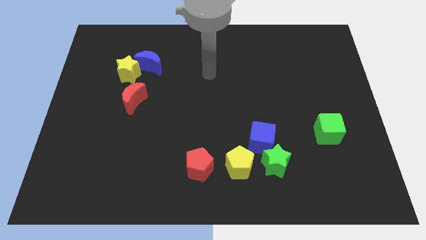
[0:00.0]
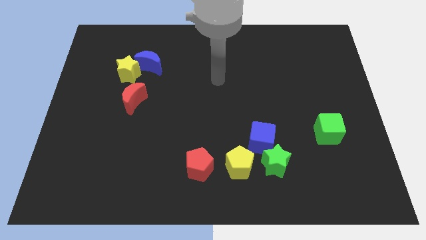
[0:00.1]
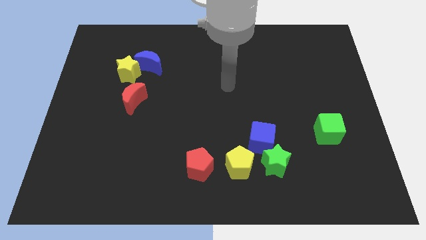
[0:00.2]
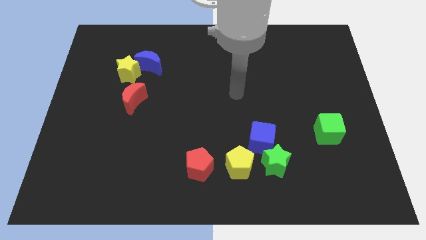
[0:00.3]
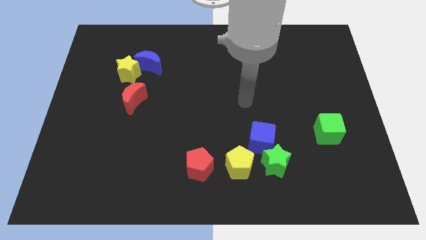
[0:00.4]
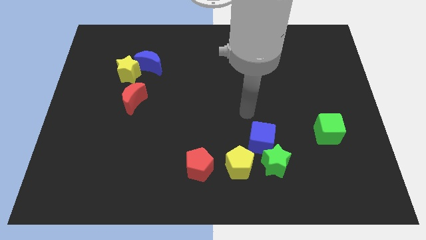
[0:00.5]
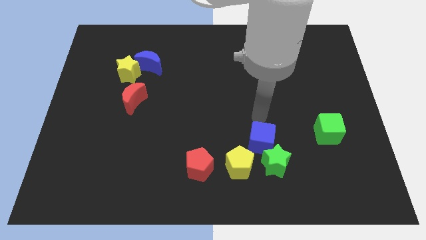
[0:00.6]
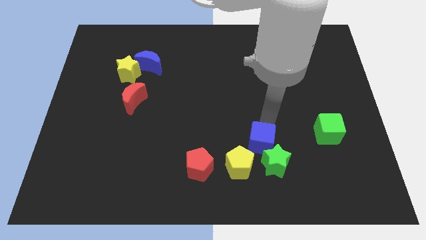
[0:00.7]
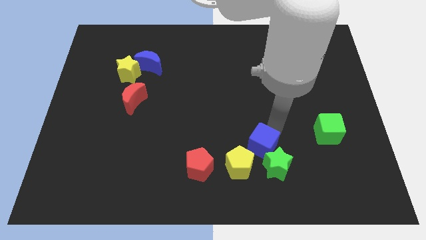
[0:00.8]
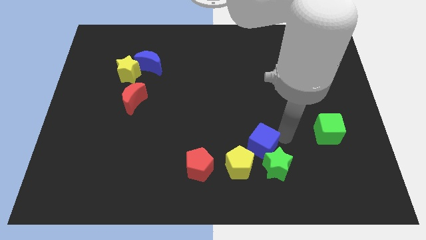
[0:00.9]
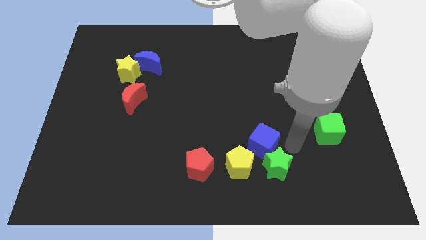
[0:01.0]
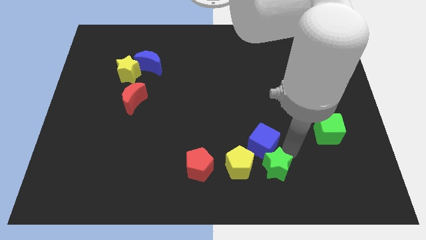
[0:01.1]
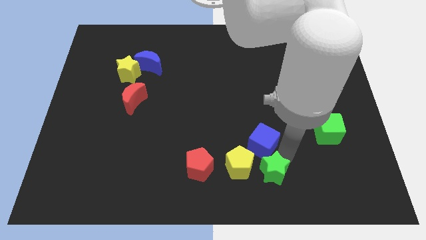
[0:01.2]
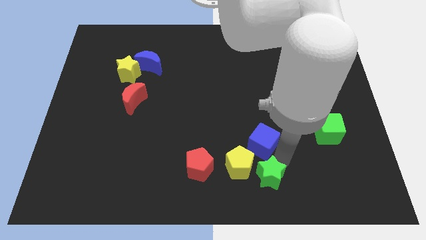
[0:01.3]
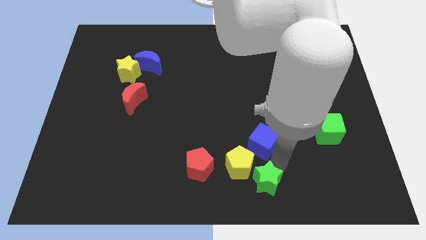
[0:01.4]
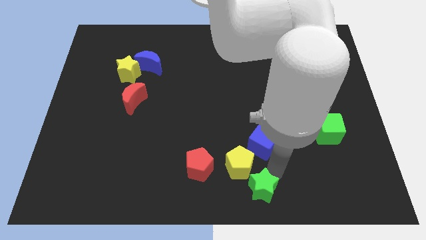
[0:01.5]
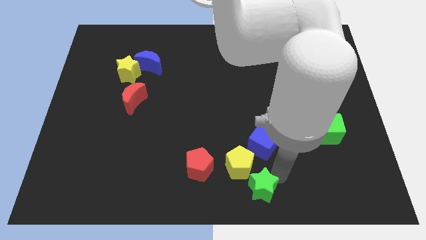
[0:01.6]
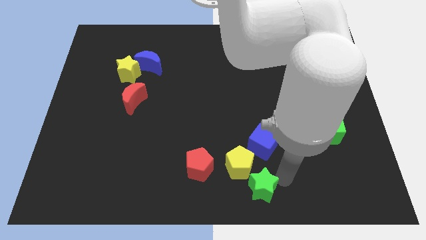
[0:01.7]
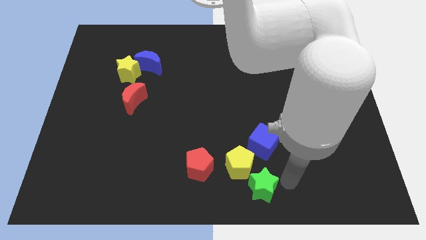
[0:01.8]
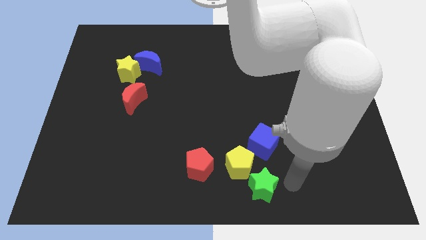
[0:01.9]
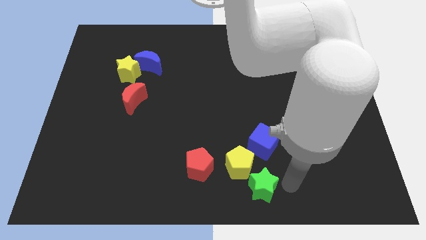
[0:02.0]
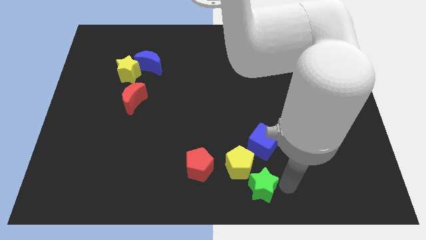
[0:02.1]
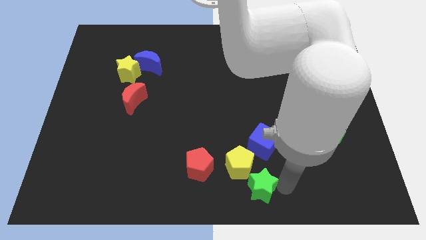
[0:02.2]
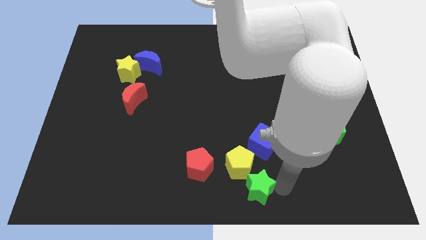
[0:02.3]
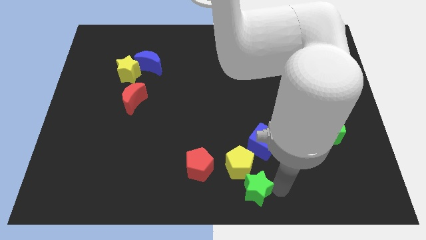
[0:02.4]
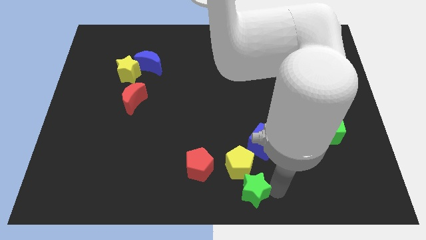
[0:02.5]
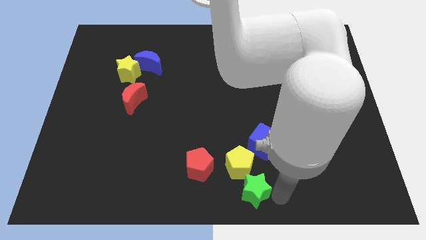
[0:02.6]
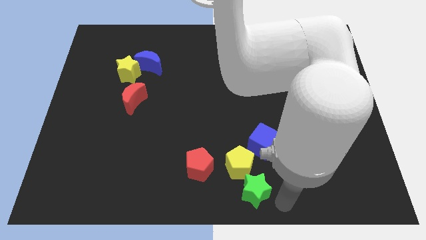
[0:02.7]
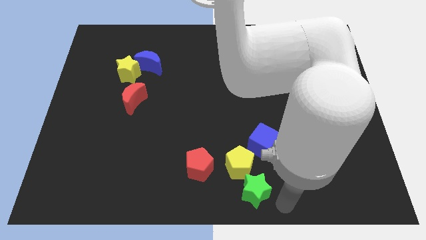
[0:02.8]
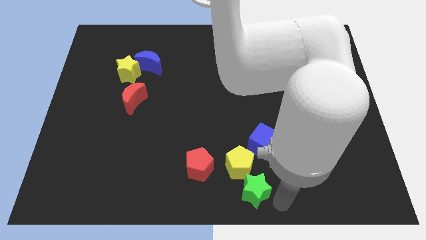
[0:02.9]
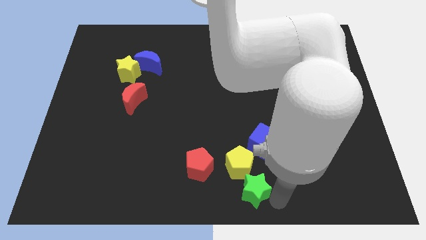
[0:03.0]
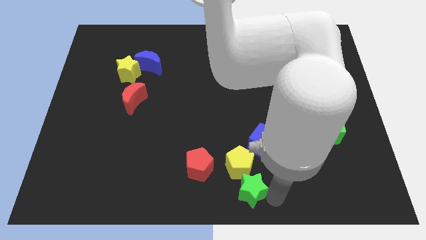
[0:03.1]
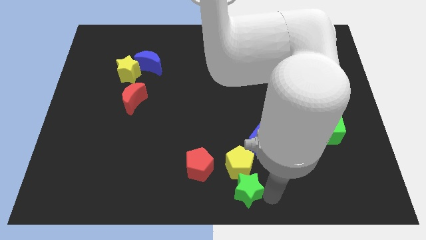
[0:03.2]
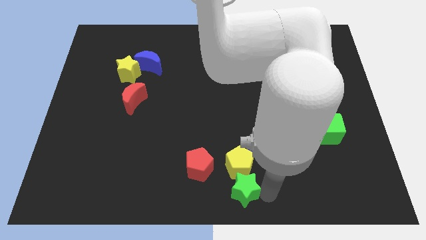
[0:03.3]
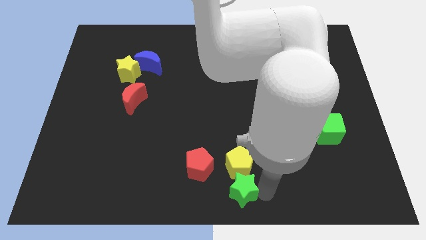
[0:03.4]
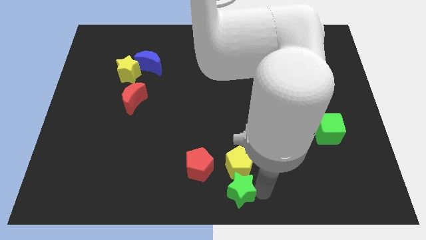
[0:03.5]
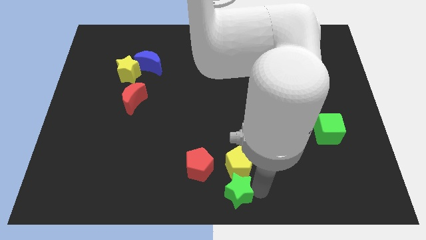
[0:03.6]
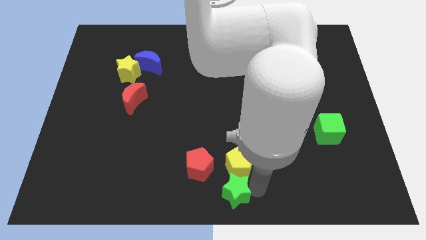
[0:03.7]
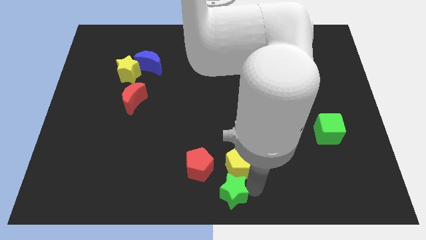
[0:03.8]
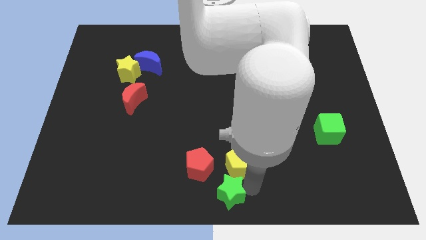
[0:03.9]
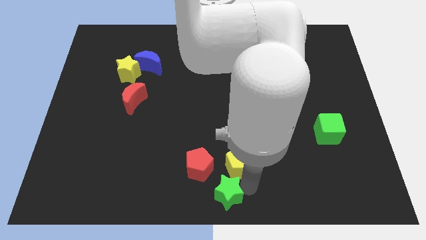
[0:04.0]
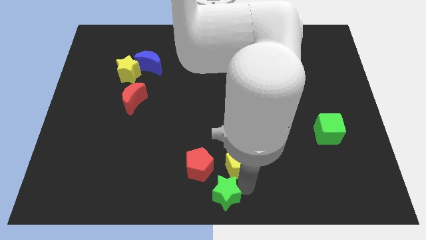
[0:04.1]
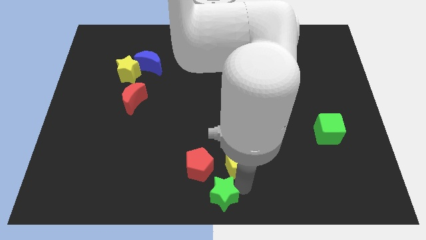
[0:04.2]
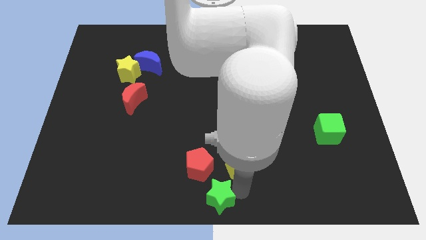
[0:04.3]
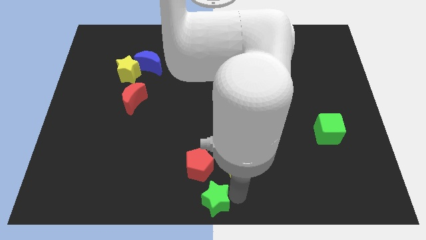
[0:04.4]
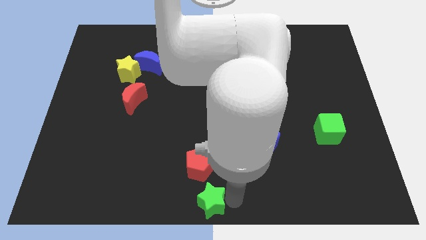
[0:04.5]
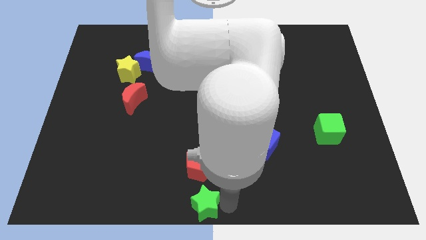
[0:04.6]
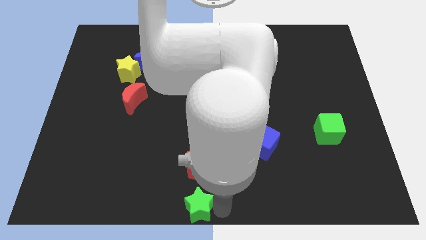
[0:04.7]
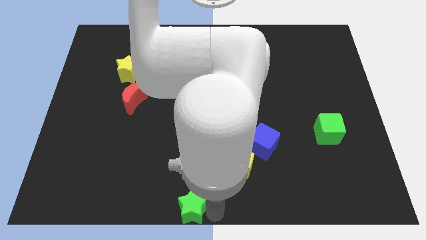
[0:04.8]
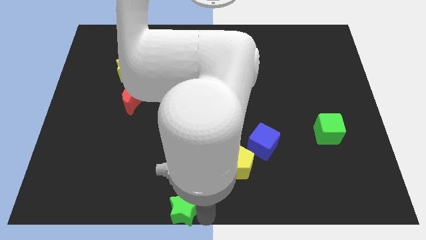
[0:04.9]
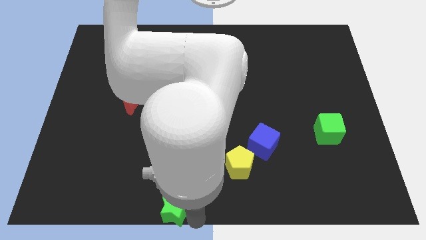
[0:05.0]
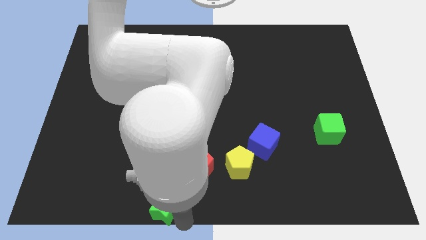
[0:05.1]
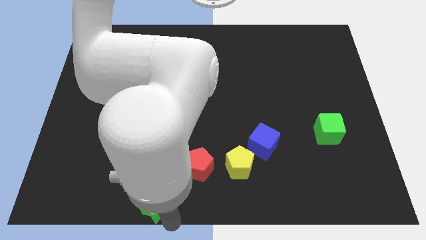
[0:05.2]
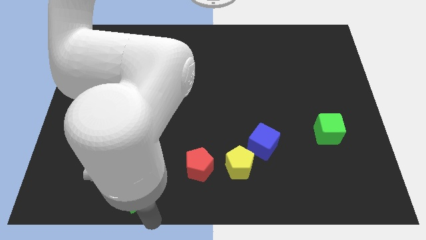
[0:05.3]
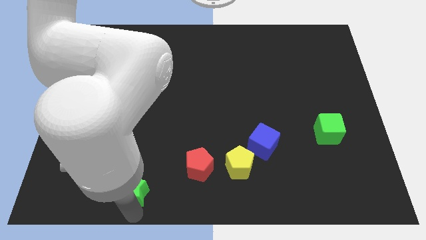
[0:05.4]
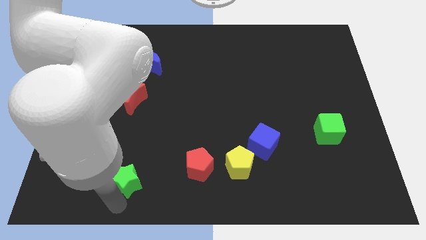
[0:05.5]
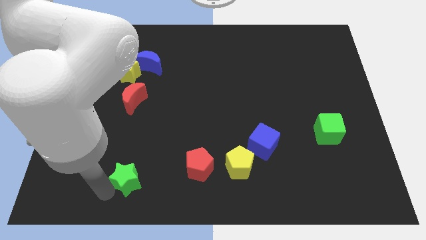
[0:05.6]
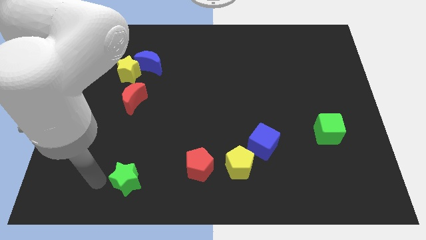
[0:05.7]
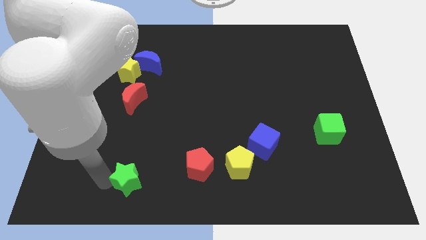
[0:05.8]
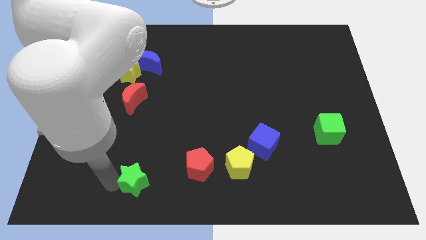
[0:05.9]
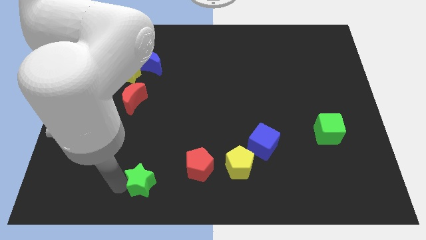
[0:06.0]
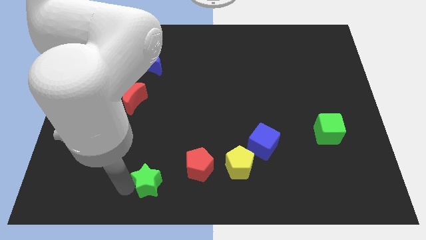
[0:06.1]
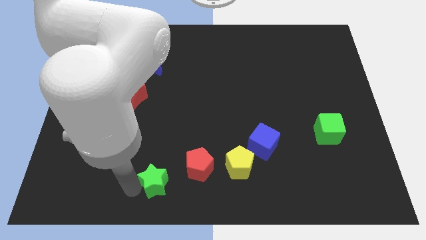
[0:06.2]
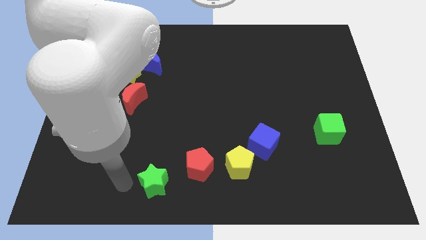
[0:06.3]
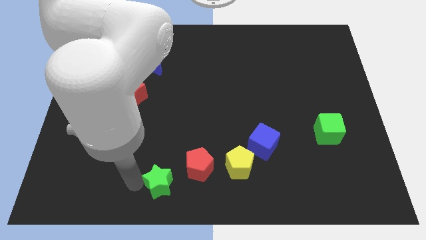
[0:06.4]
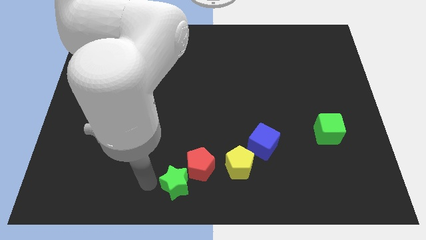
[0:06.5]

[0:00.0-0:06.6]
move the green star towards the red pentagon
